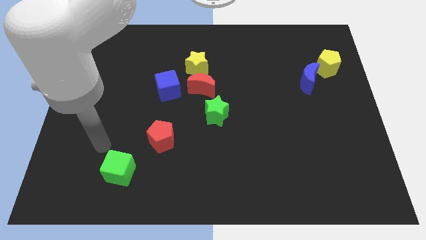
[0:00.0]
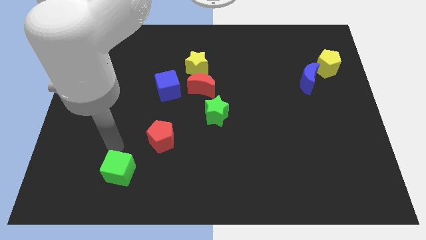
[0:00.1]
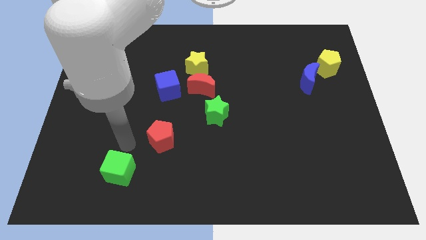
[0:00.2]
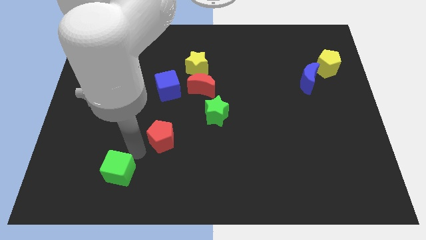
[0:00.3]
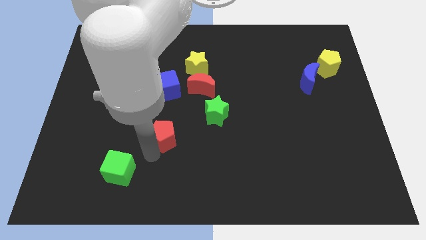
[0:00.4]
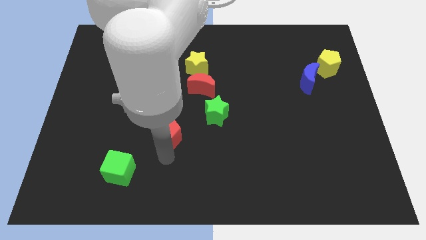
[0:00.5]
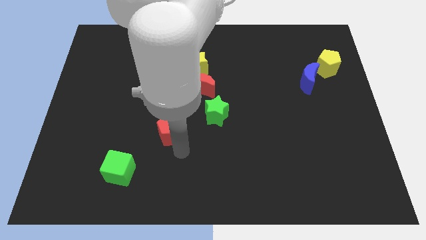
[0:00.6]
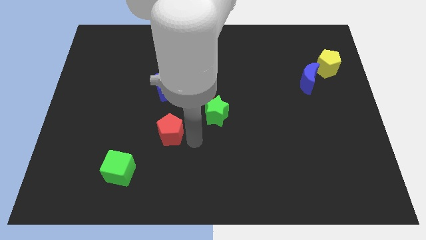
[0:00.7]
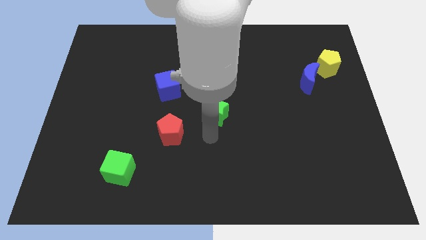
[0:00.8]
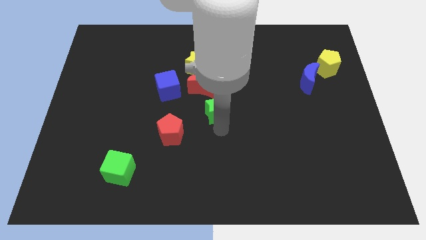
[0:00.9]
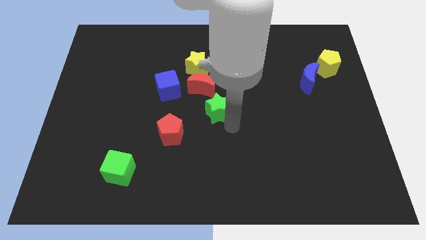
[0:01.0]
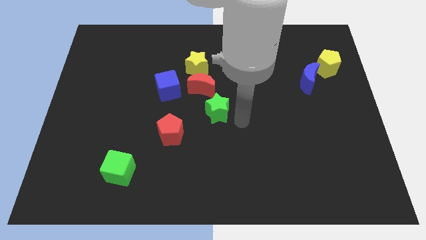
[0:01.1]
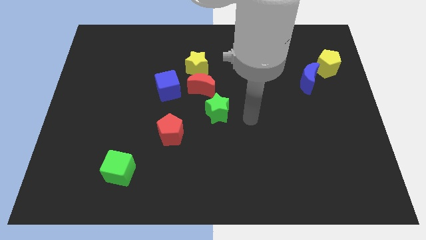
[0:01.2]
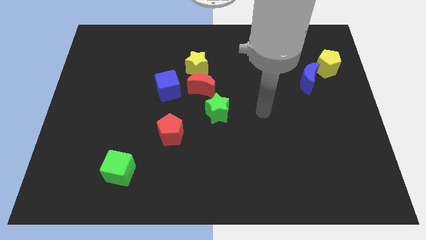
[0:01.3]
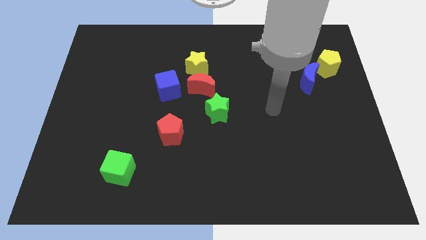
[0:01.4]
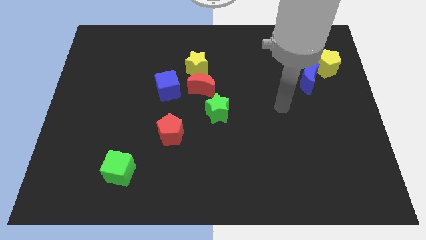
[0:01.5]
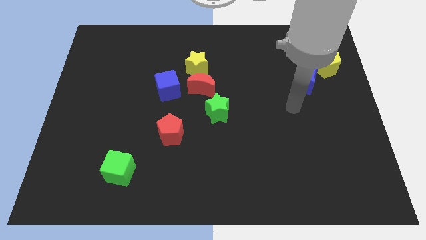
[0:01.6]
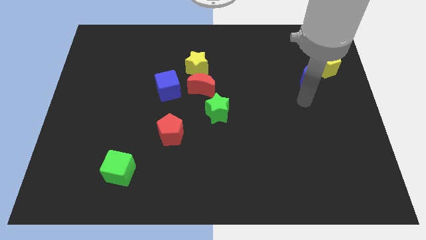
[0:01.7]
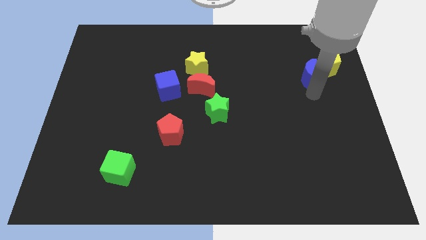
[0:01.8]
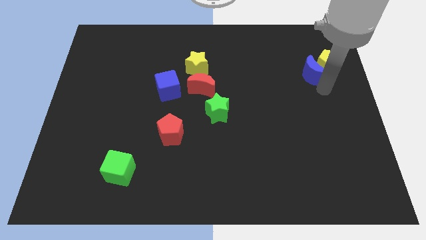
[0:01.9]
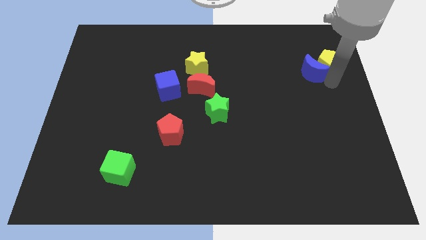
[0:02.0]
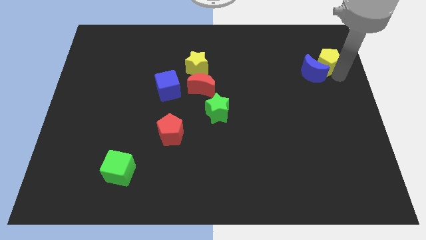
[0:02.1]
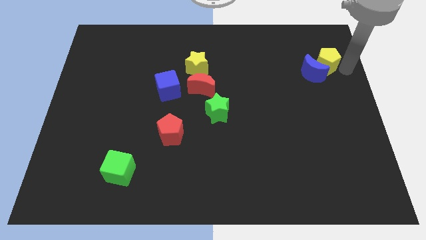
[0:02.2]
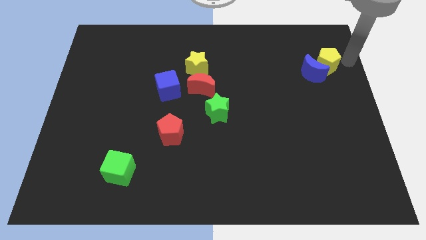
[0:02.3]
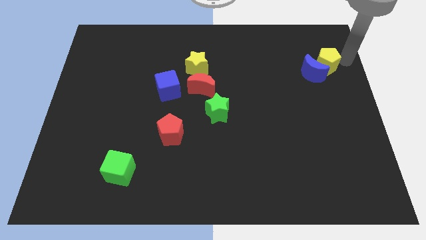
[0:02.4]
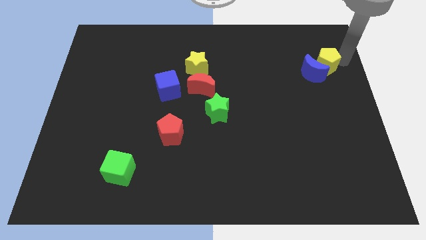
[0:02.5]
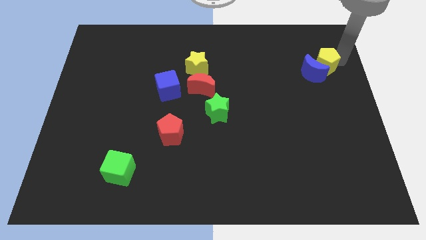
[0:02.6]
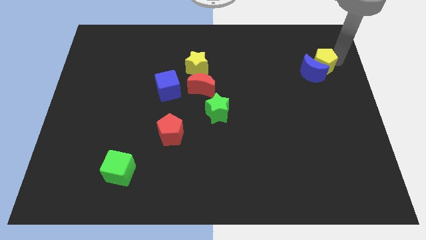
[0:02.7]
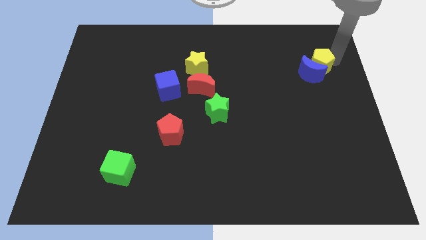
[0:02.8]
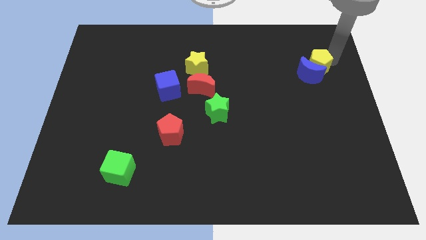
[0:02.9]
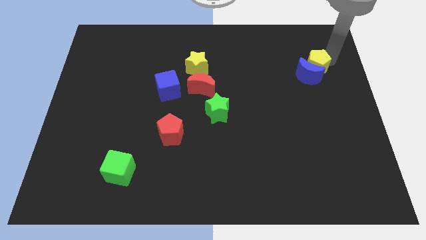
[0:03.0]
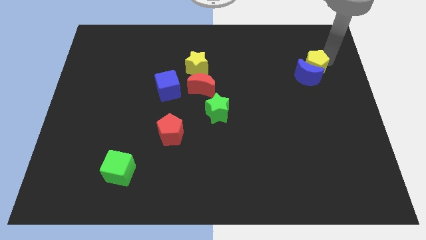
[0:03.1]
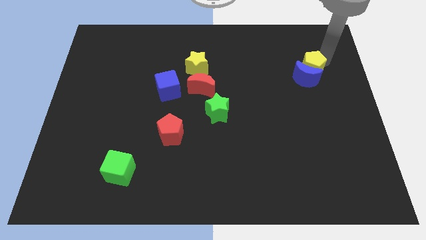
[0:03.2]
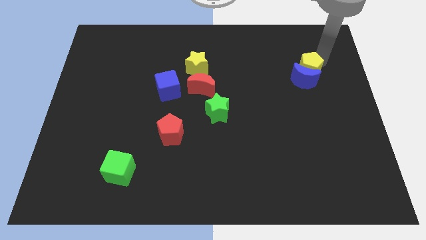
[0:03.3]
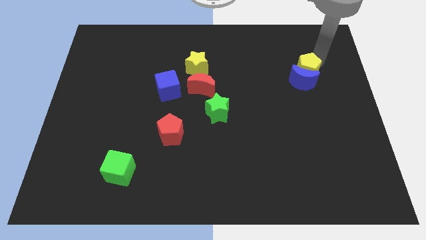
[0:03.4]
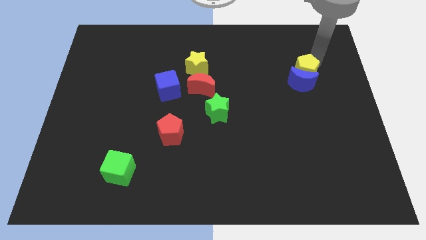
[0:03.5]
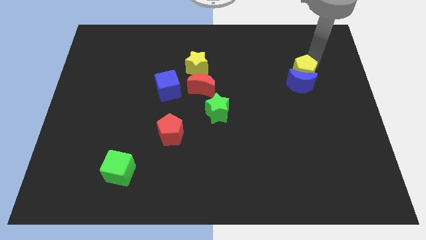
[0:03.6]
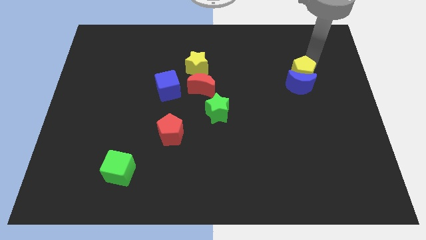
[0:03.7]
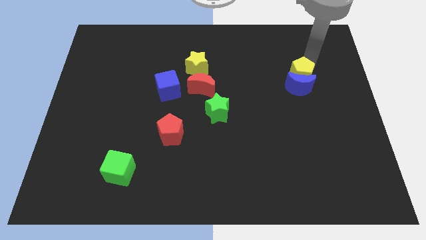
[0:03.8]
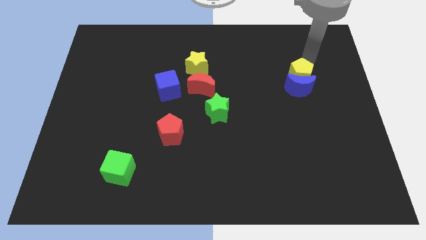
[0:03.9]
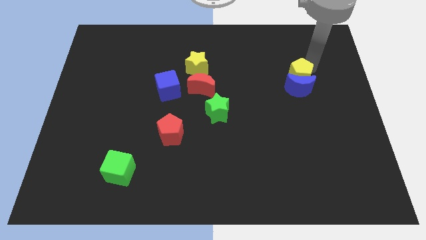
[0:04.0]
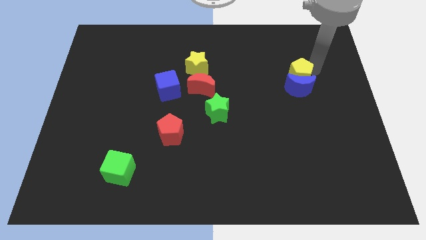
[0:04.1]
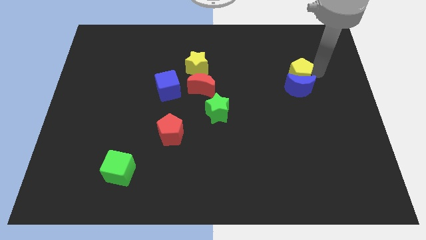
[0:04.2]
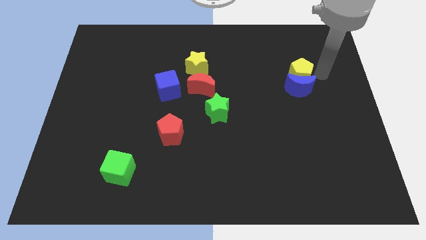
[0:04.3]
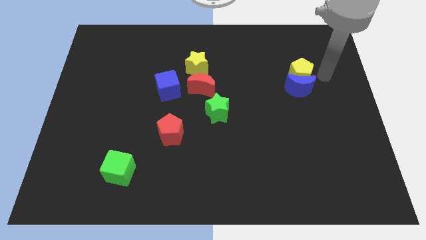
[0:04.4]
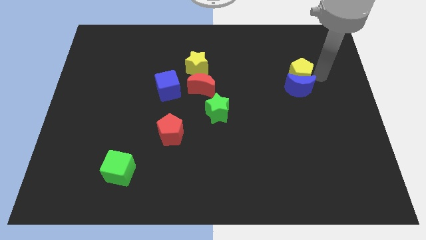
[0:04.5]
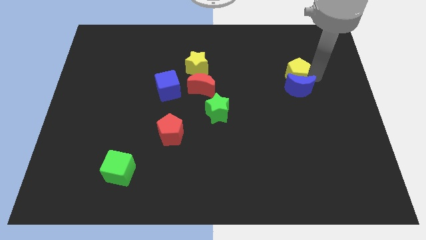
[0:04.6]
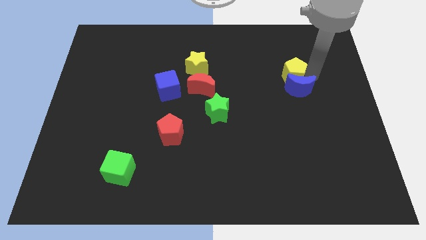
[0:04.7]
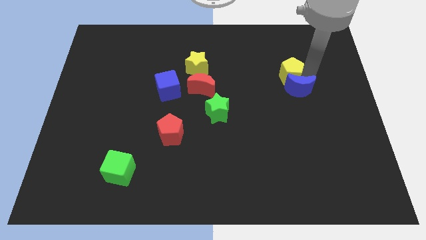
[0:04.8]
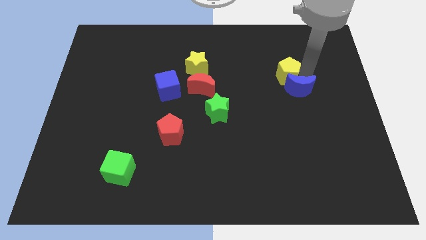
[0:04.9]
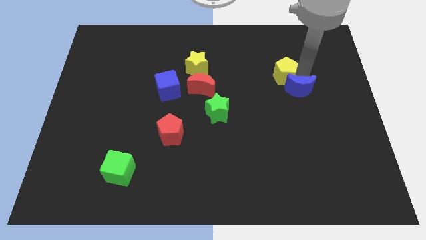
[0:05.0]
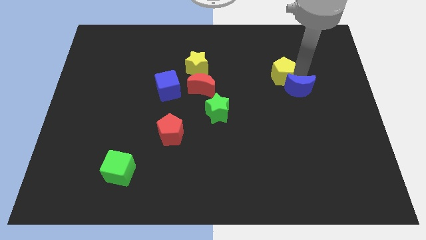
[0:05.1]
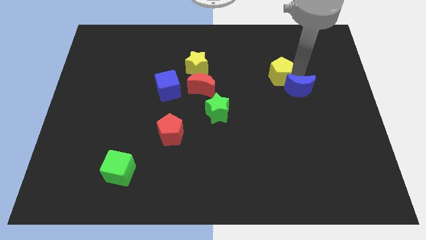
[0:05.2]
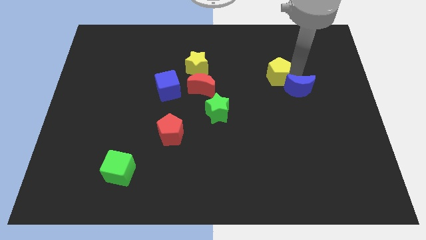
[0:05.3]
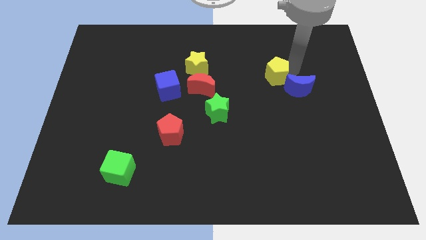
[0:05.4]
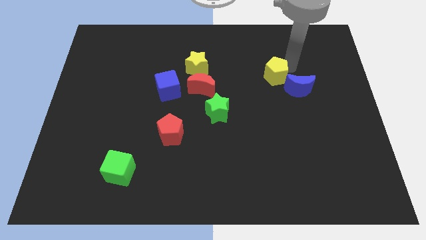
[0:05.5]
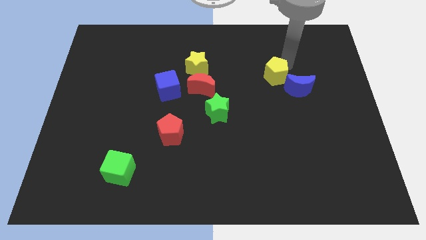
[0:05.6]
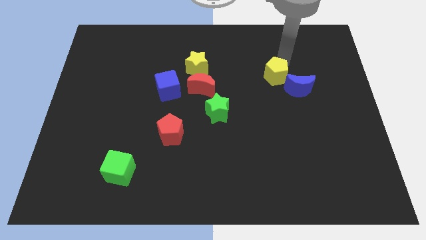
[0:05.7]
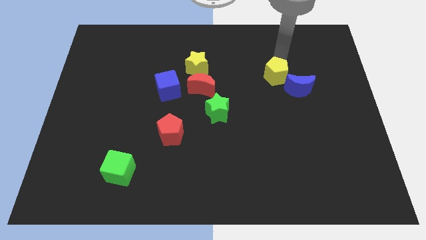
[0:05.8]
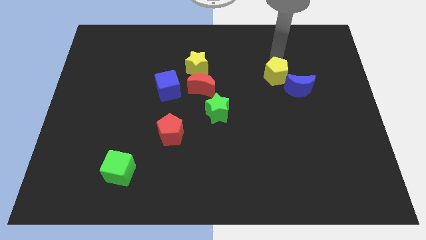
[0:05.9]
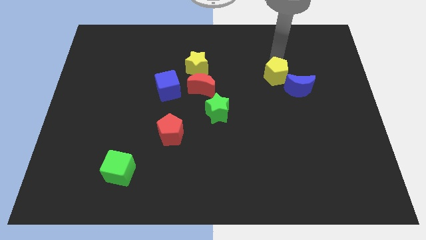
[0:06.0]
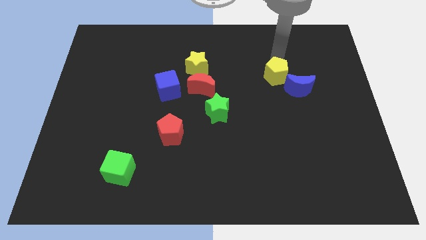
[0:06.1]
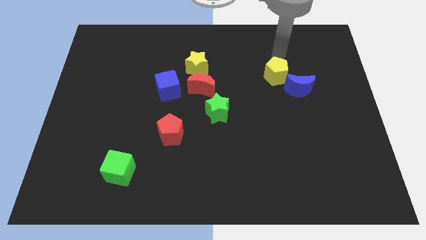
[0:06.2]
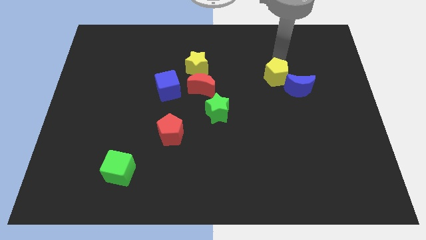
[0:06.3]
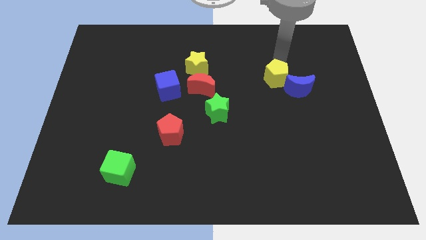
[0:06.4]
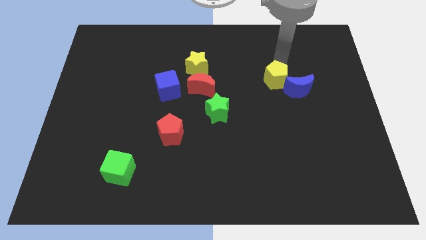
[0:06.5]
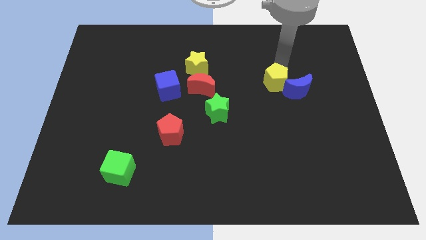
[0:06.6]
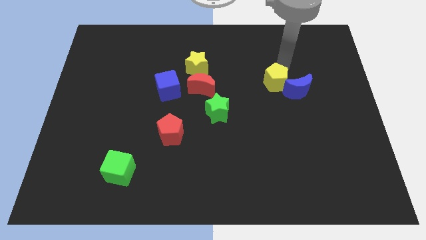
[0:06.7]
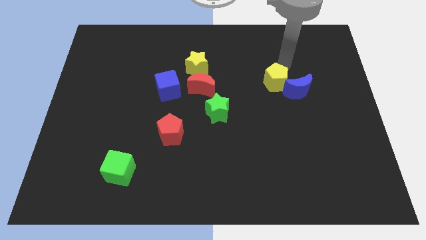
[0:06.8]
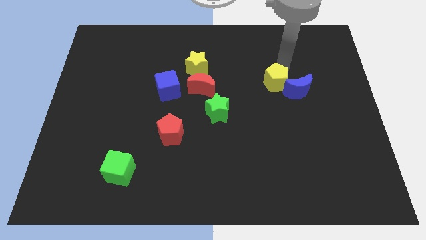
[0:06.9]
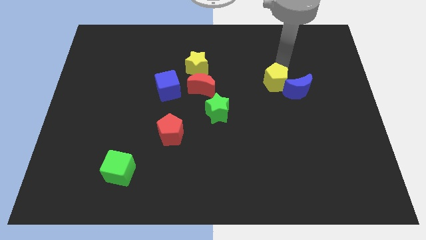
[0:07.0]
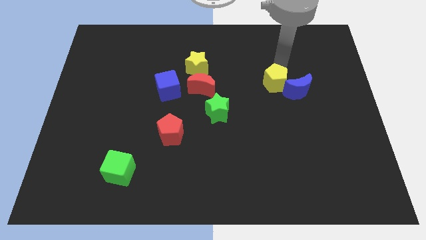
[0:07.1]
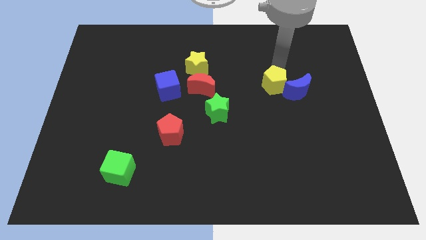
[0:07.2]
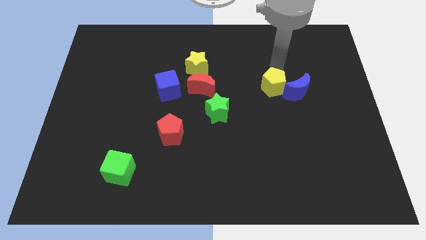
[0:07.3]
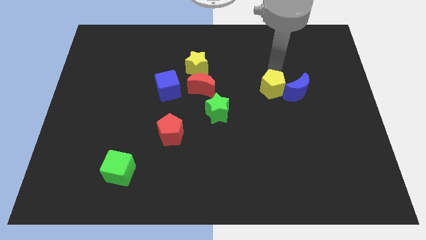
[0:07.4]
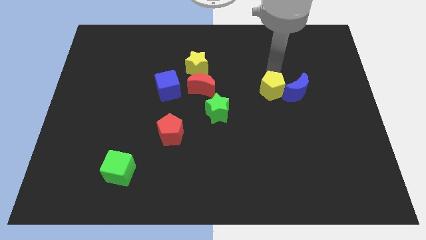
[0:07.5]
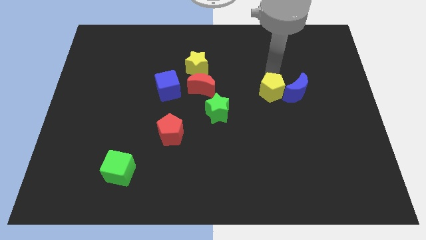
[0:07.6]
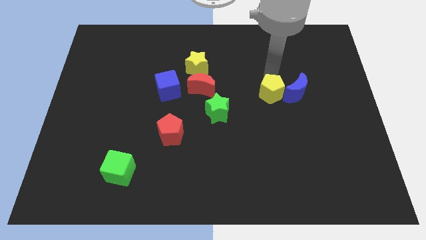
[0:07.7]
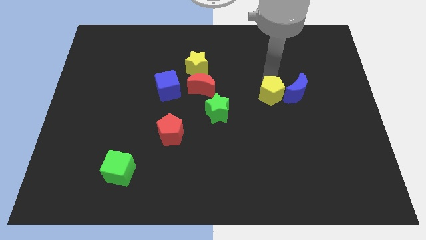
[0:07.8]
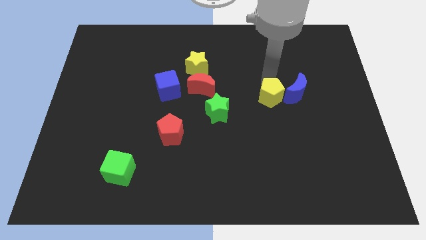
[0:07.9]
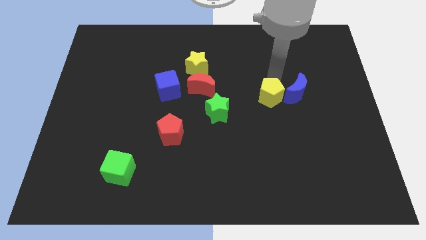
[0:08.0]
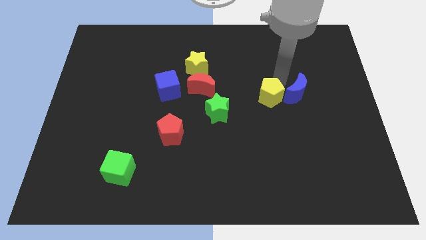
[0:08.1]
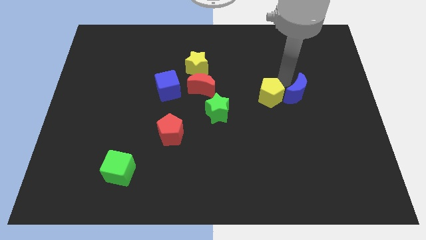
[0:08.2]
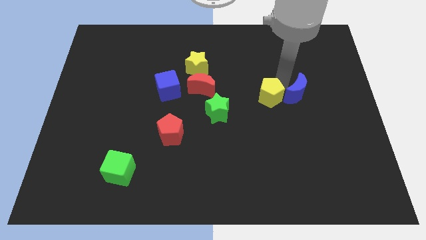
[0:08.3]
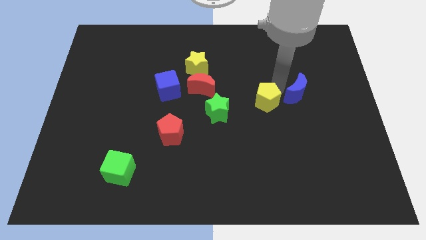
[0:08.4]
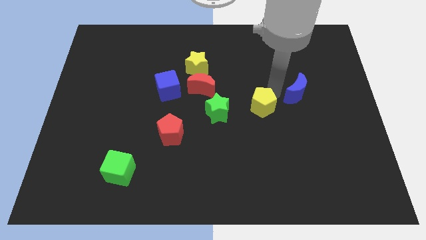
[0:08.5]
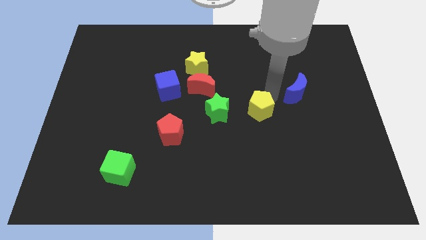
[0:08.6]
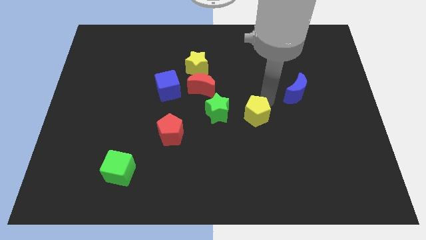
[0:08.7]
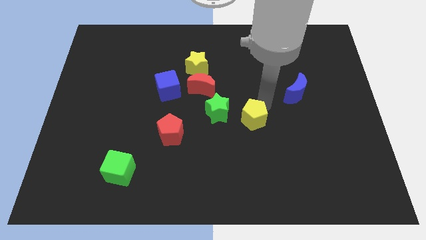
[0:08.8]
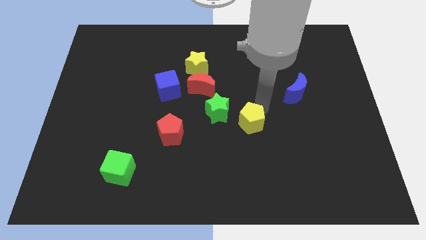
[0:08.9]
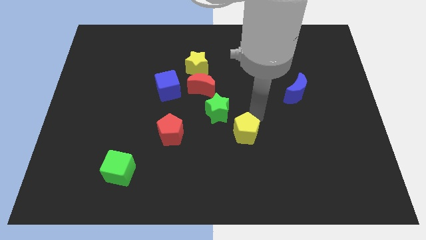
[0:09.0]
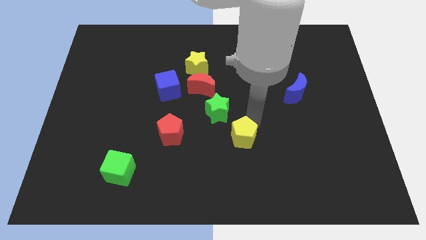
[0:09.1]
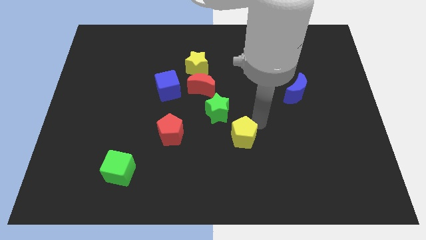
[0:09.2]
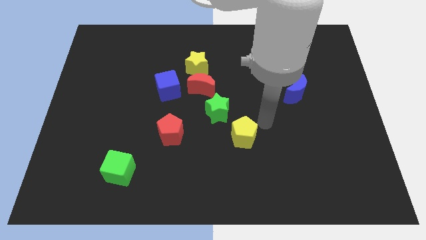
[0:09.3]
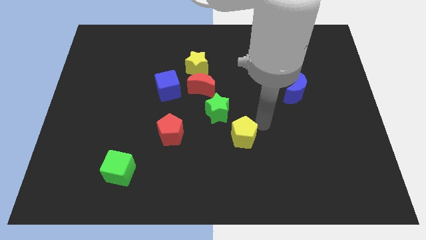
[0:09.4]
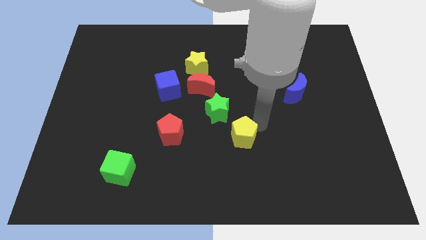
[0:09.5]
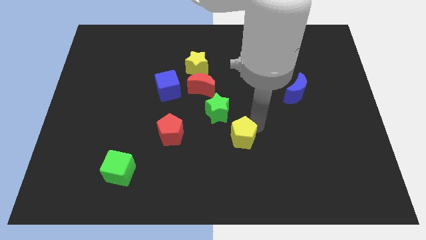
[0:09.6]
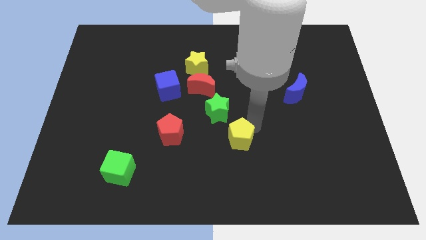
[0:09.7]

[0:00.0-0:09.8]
slide the yellow pentagon to the bottom of the green star
